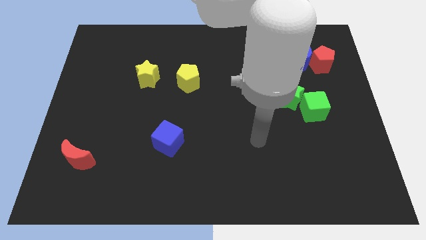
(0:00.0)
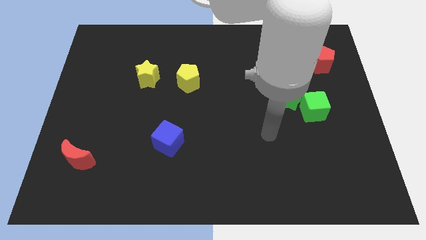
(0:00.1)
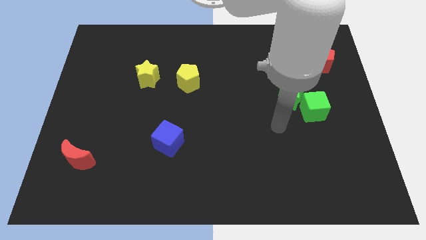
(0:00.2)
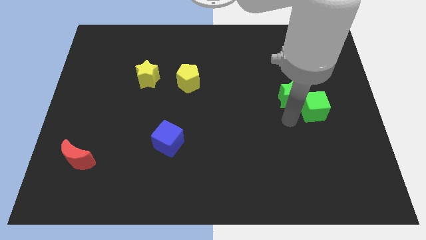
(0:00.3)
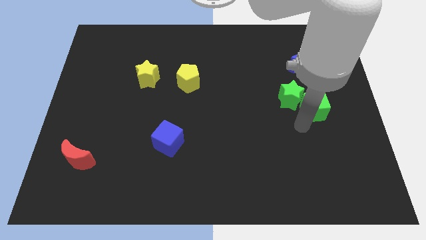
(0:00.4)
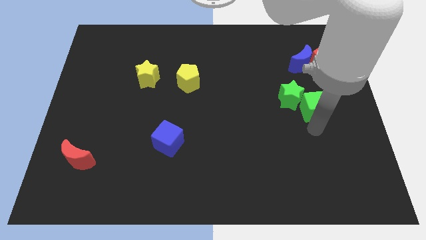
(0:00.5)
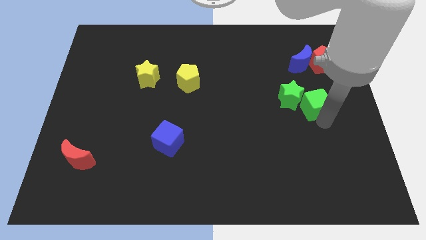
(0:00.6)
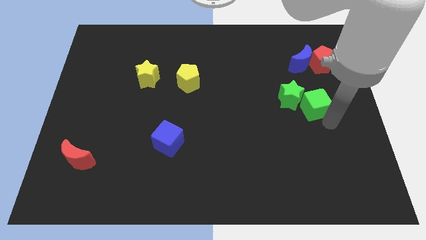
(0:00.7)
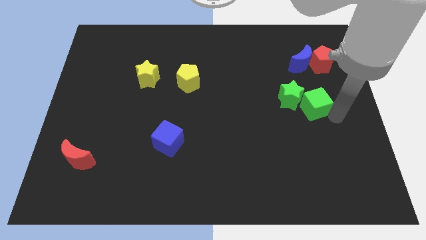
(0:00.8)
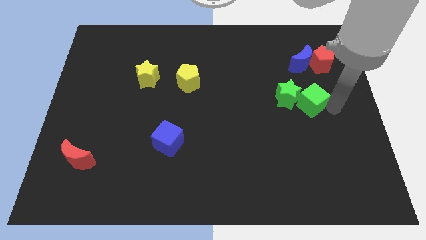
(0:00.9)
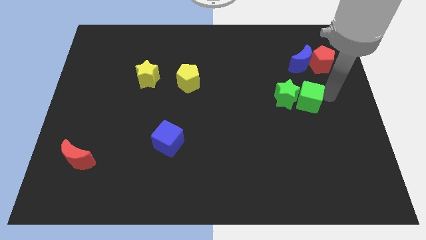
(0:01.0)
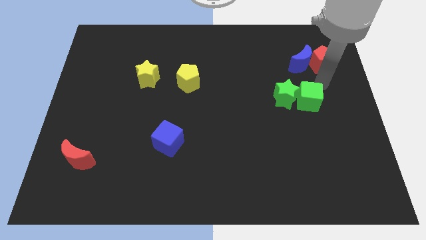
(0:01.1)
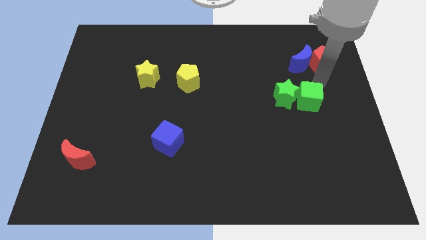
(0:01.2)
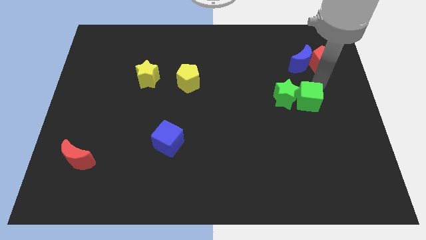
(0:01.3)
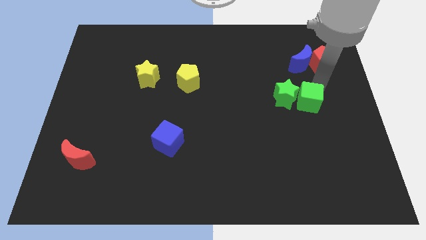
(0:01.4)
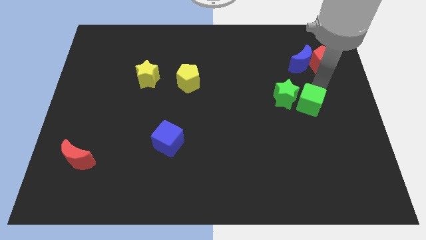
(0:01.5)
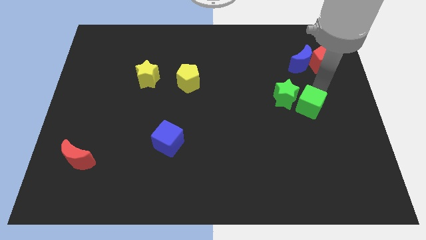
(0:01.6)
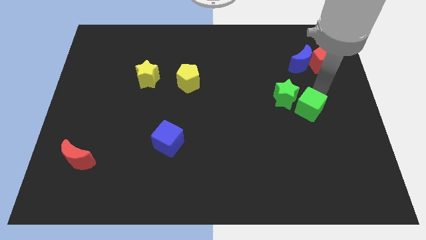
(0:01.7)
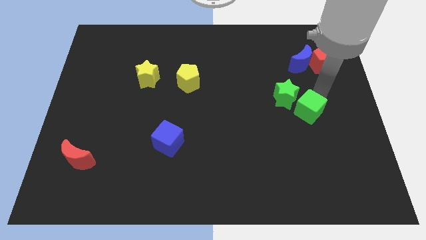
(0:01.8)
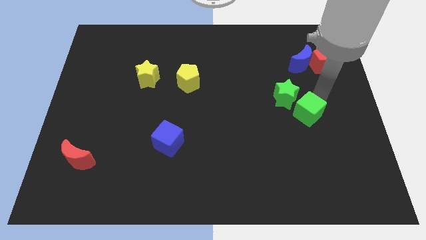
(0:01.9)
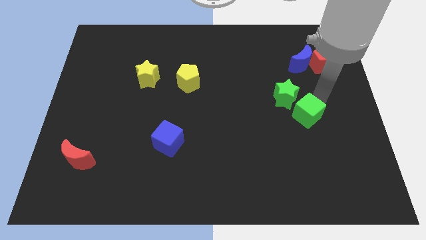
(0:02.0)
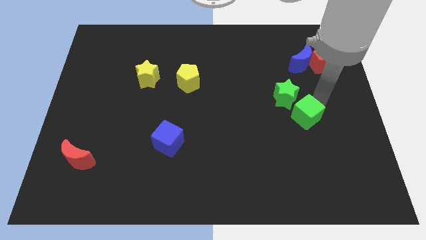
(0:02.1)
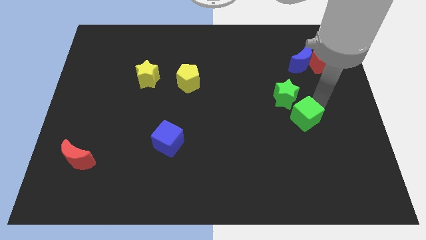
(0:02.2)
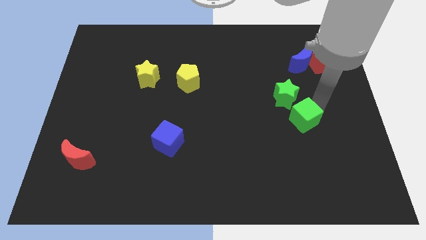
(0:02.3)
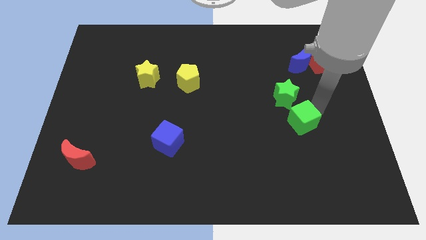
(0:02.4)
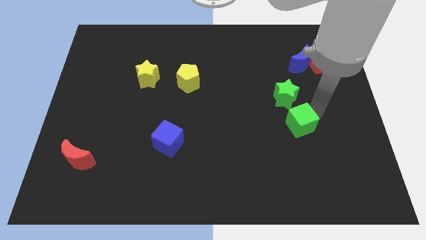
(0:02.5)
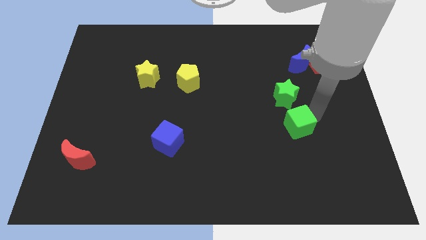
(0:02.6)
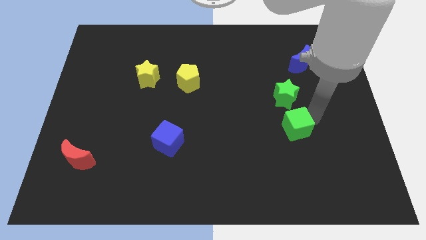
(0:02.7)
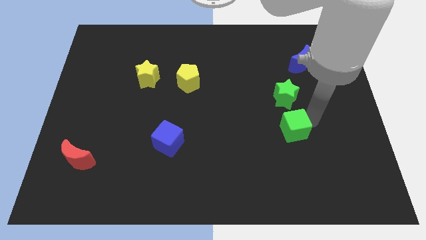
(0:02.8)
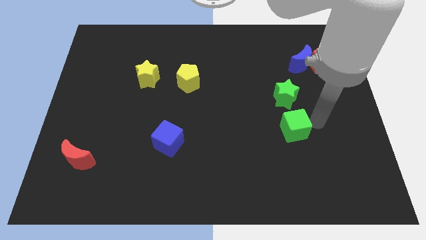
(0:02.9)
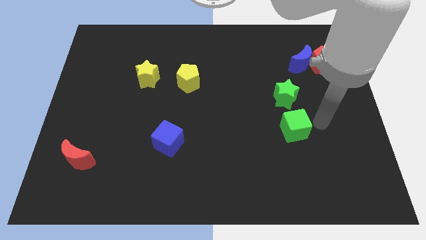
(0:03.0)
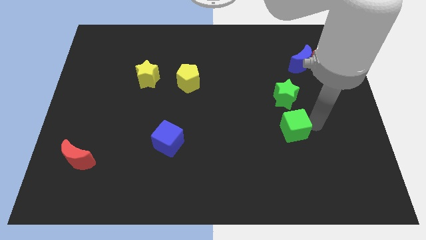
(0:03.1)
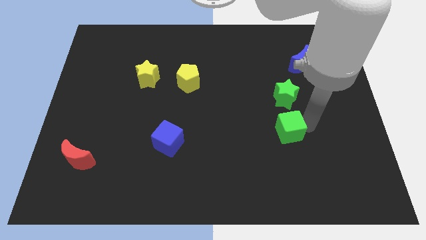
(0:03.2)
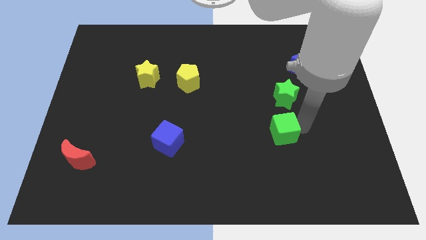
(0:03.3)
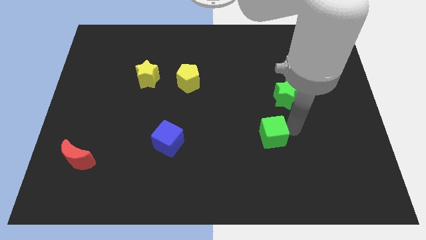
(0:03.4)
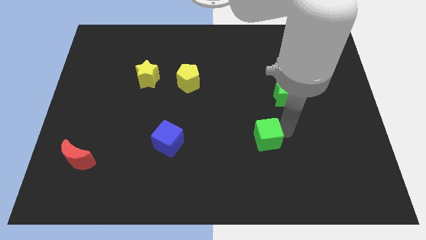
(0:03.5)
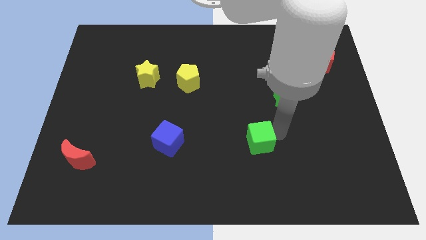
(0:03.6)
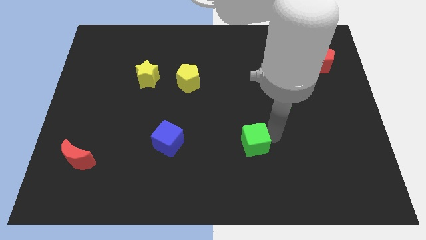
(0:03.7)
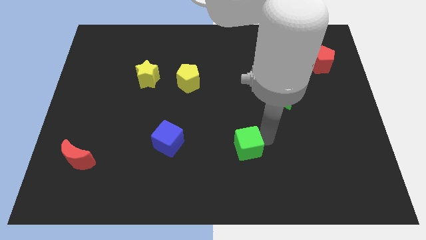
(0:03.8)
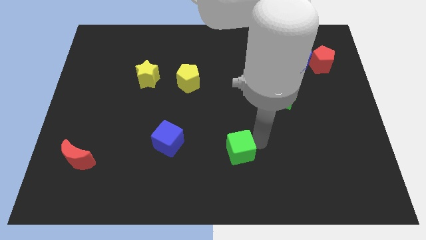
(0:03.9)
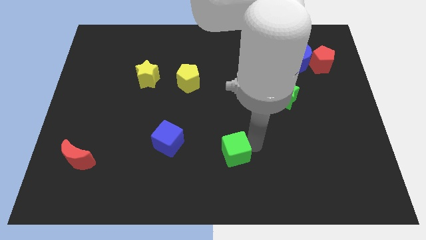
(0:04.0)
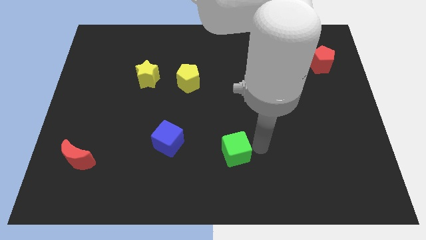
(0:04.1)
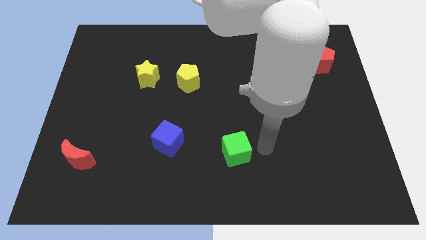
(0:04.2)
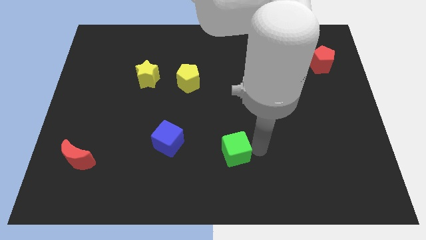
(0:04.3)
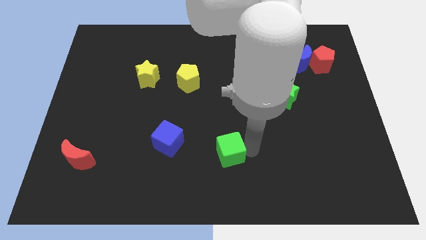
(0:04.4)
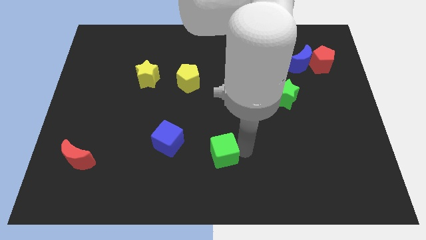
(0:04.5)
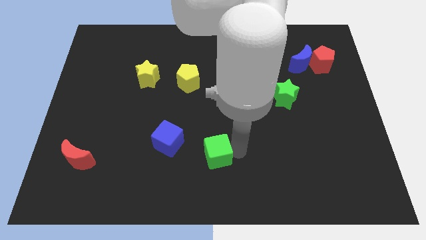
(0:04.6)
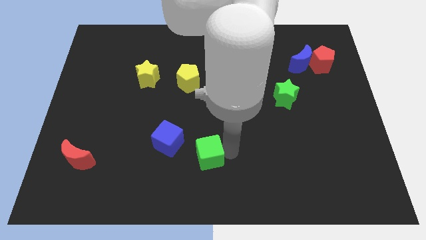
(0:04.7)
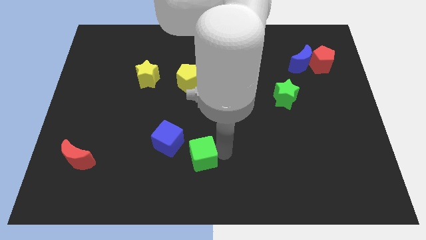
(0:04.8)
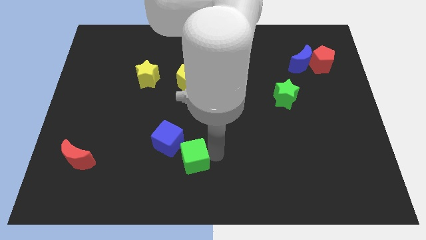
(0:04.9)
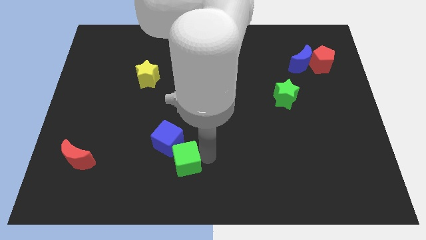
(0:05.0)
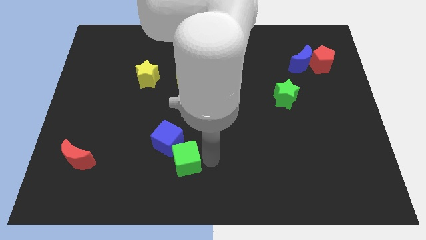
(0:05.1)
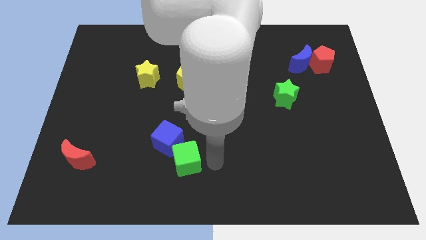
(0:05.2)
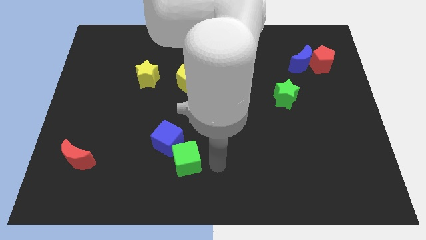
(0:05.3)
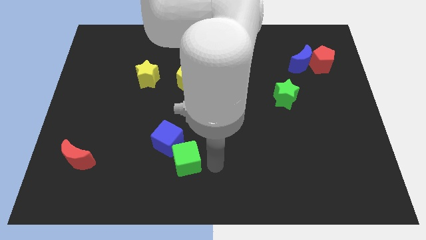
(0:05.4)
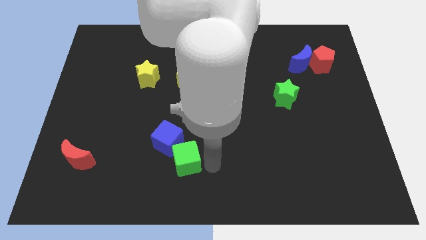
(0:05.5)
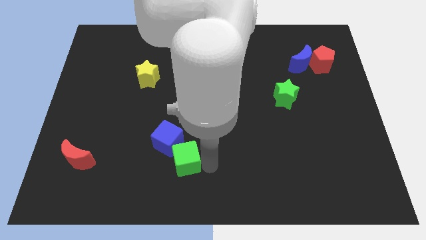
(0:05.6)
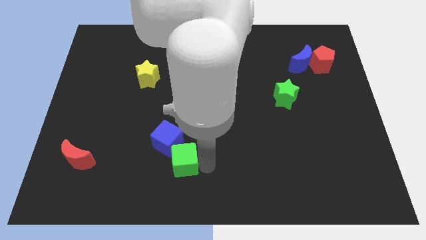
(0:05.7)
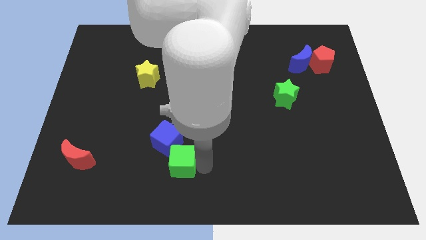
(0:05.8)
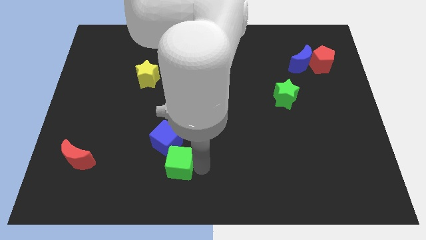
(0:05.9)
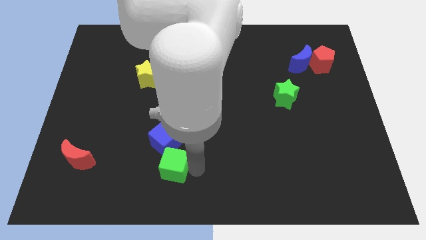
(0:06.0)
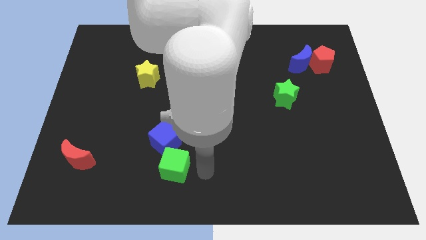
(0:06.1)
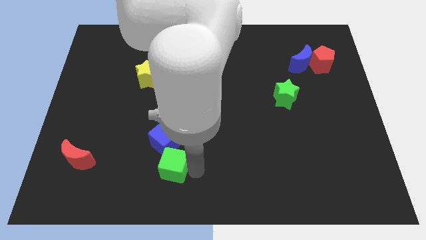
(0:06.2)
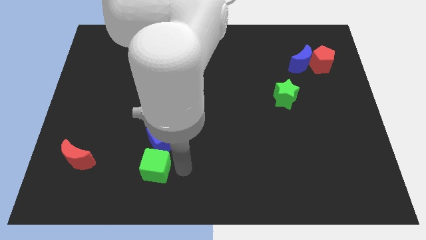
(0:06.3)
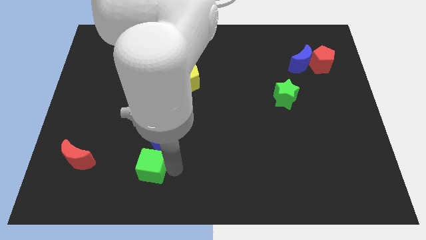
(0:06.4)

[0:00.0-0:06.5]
move the green cube to the right of the red moon

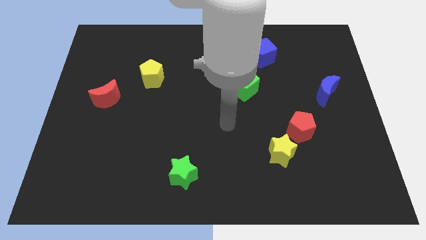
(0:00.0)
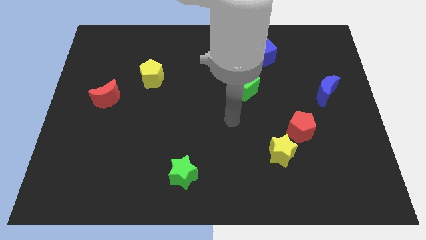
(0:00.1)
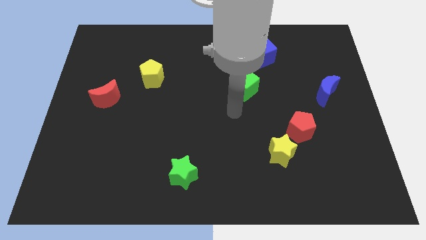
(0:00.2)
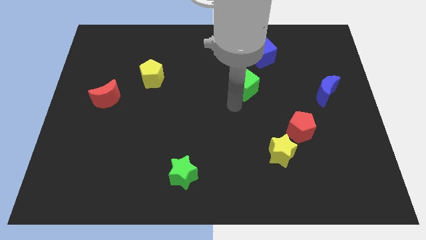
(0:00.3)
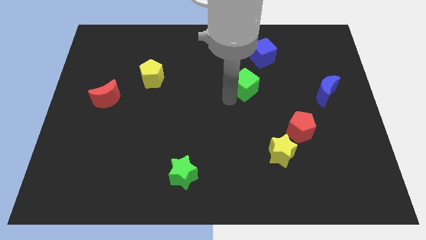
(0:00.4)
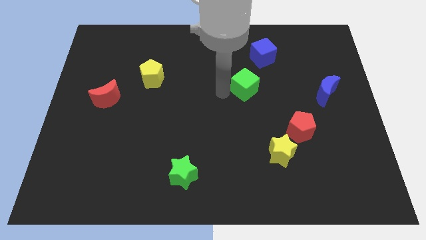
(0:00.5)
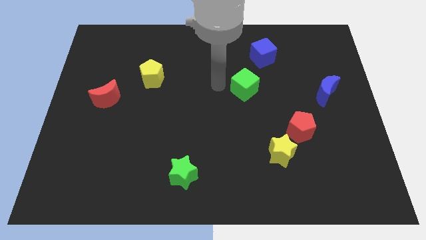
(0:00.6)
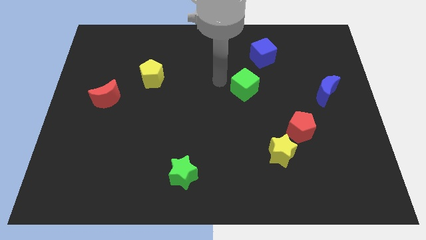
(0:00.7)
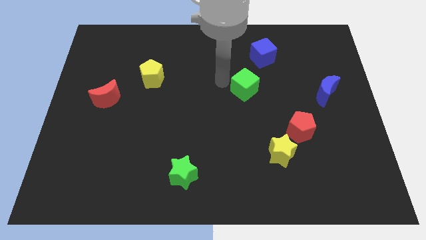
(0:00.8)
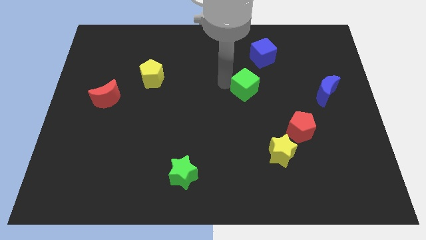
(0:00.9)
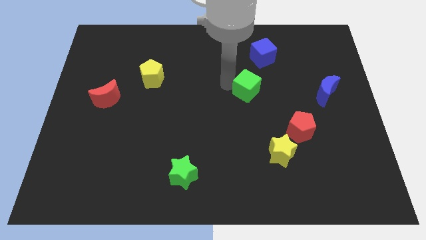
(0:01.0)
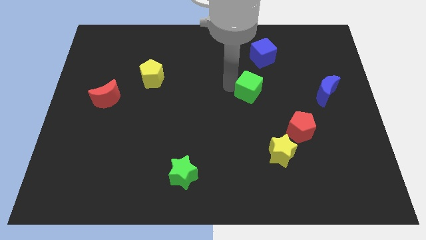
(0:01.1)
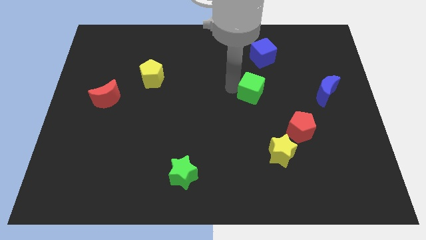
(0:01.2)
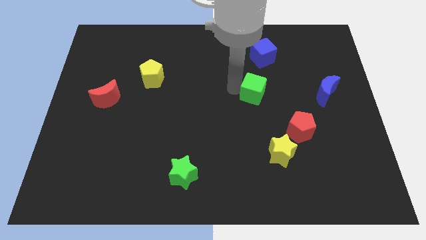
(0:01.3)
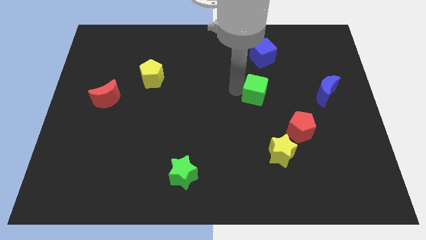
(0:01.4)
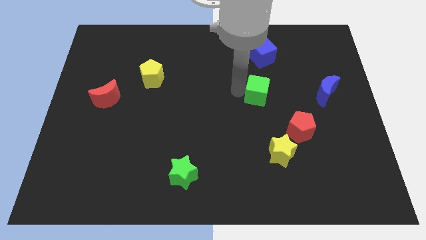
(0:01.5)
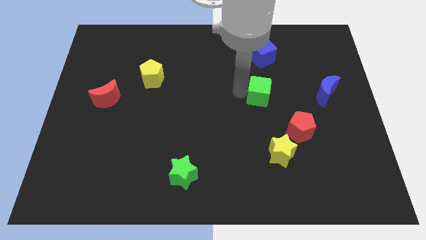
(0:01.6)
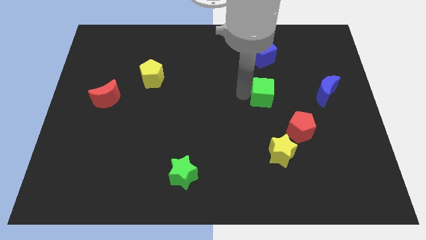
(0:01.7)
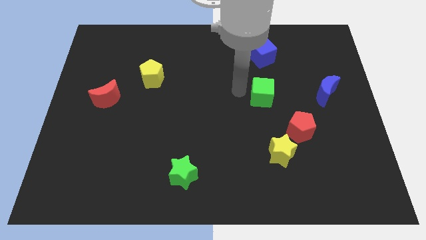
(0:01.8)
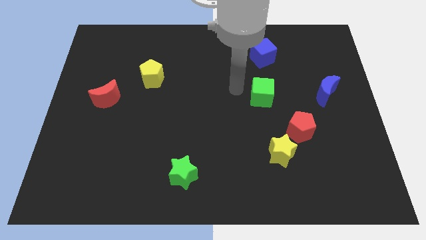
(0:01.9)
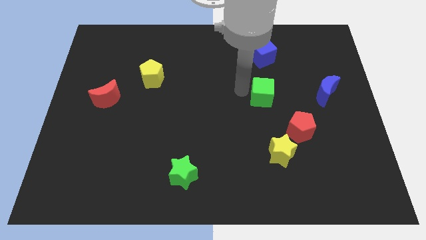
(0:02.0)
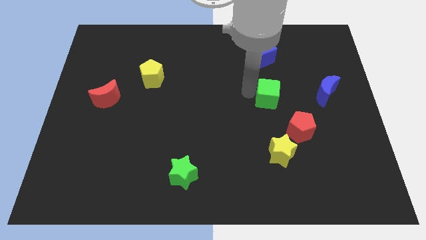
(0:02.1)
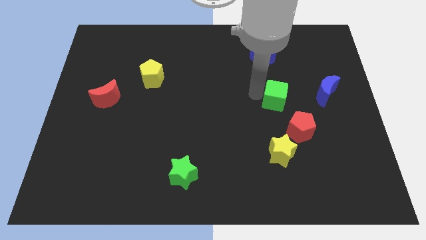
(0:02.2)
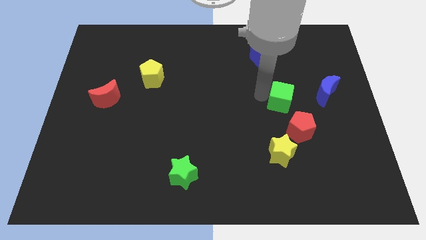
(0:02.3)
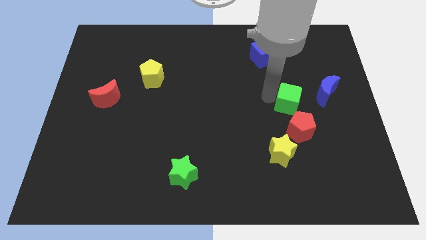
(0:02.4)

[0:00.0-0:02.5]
push the green cube to the bottom left side of the blue moon
